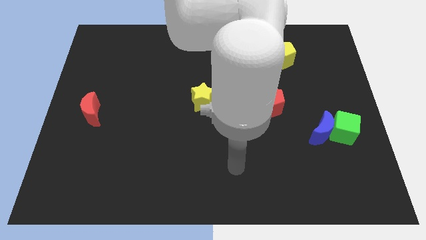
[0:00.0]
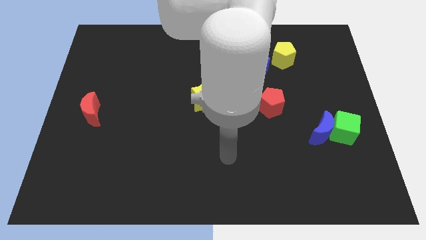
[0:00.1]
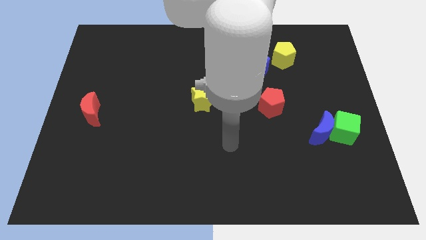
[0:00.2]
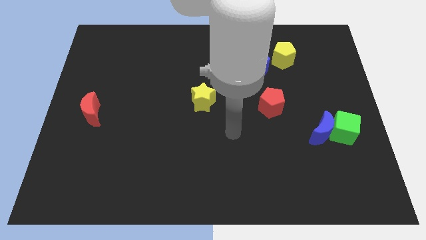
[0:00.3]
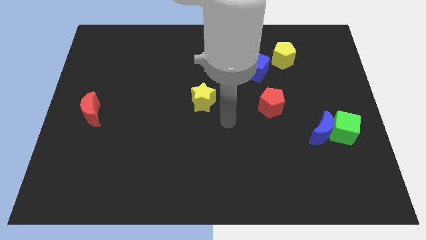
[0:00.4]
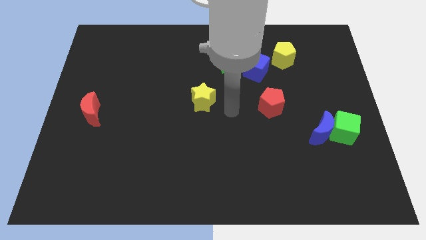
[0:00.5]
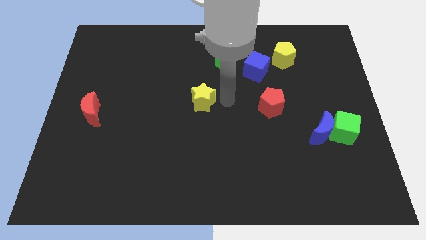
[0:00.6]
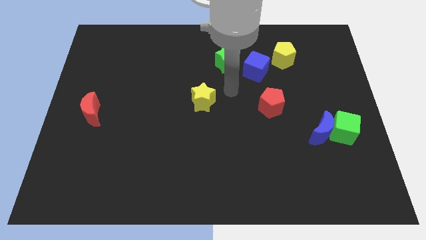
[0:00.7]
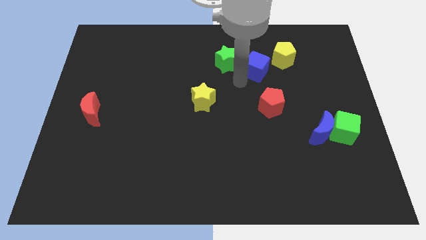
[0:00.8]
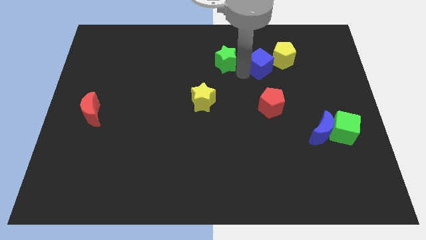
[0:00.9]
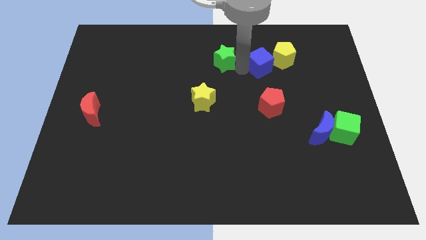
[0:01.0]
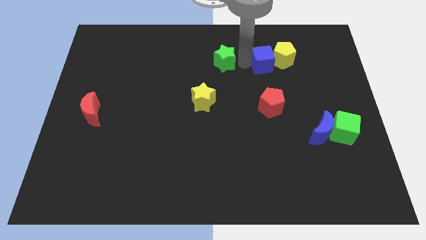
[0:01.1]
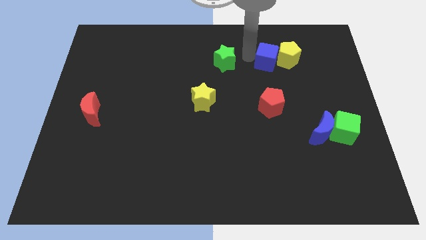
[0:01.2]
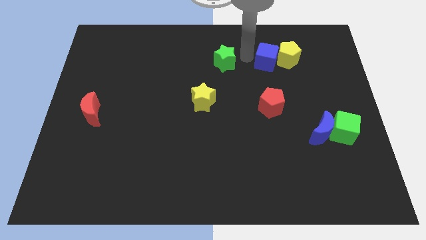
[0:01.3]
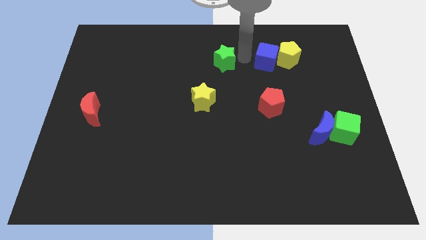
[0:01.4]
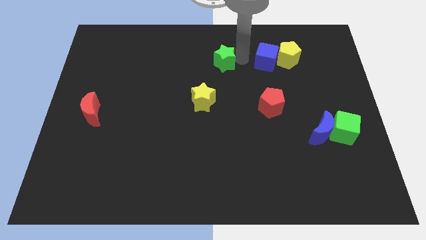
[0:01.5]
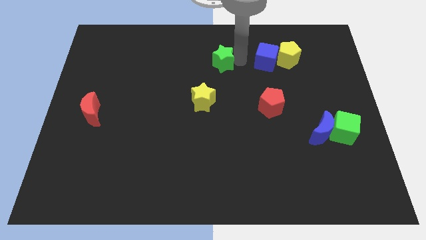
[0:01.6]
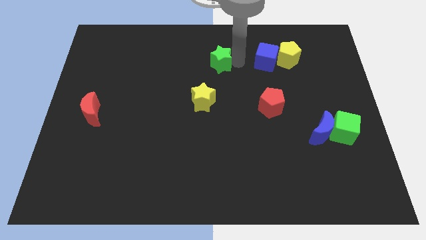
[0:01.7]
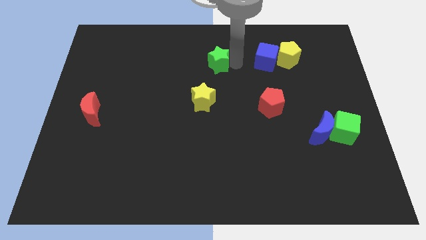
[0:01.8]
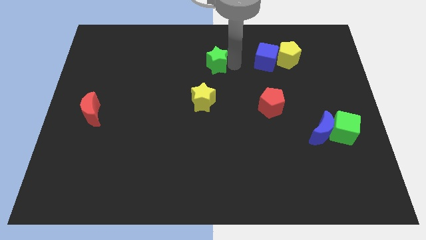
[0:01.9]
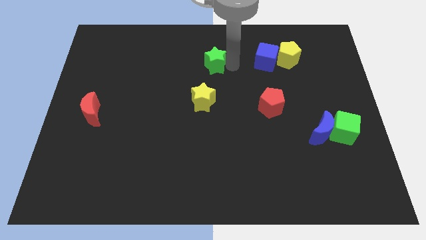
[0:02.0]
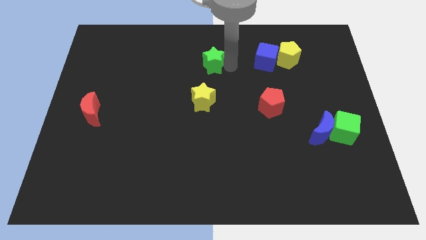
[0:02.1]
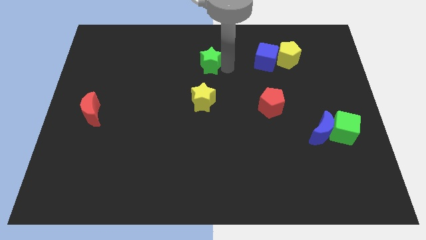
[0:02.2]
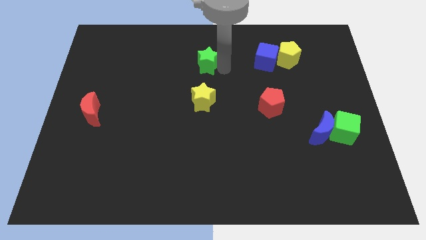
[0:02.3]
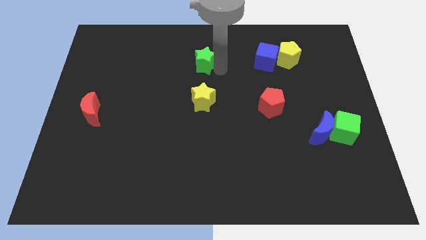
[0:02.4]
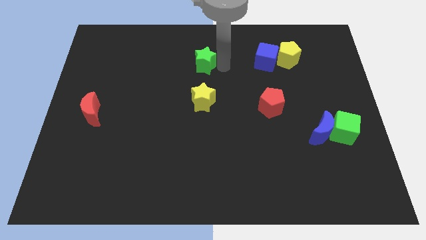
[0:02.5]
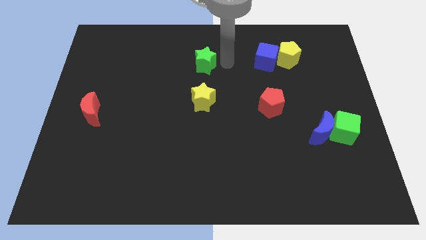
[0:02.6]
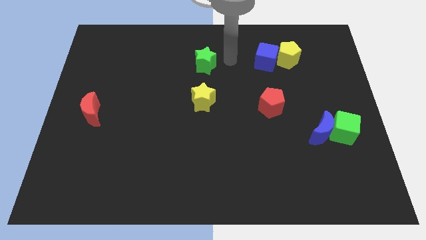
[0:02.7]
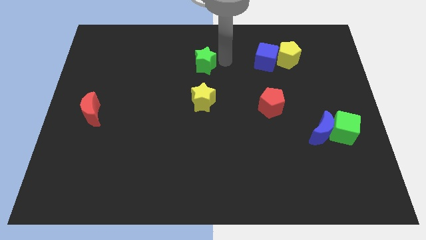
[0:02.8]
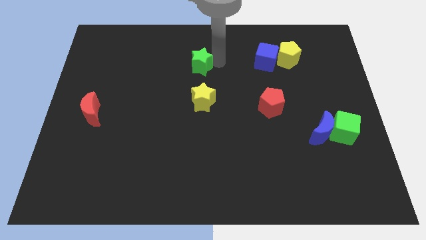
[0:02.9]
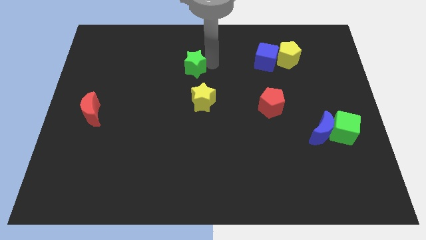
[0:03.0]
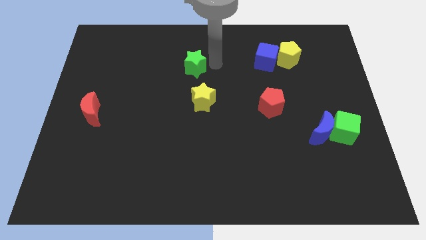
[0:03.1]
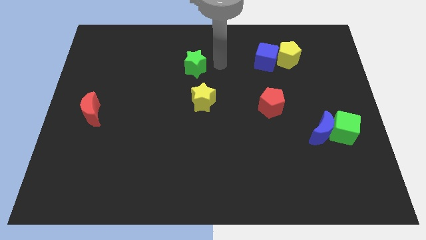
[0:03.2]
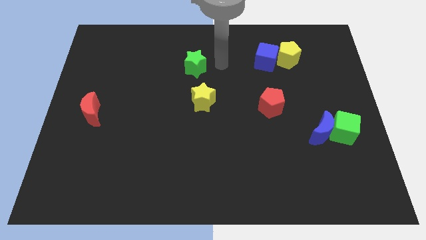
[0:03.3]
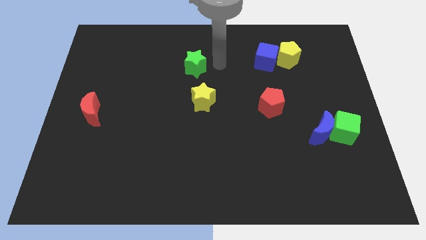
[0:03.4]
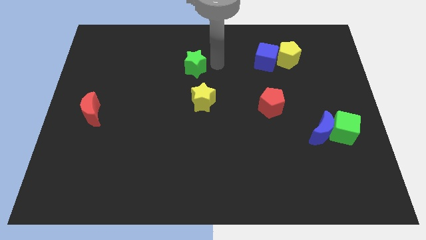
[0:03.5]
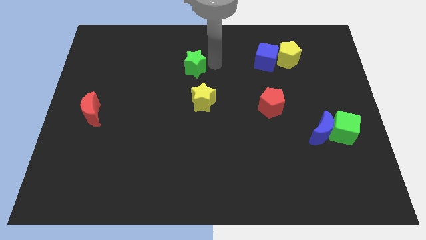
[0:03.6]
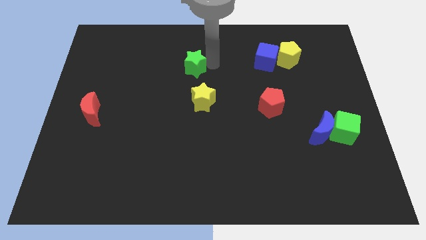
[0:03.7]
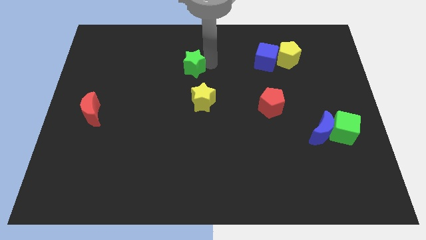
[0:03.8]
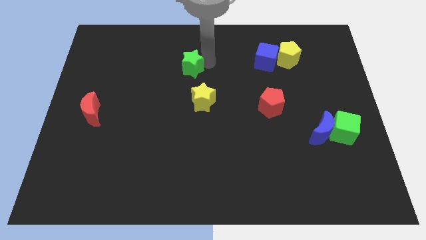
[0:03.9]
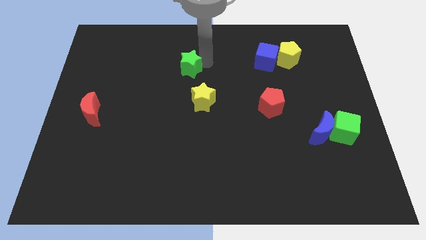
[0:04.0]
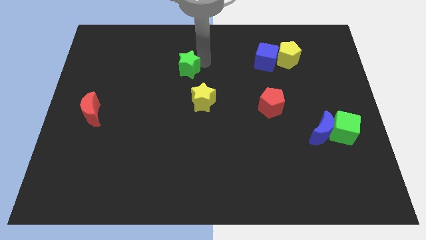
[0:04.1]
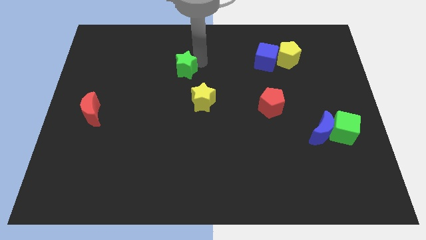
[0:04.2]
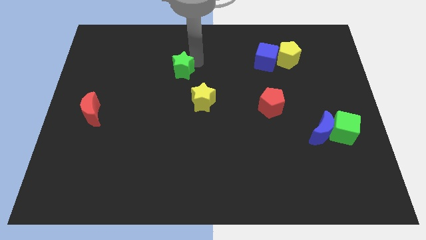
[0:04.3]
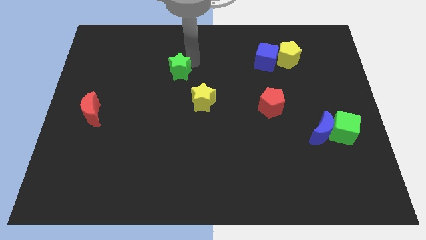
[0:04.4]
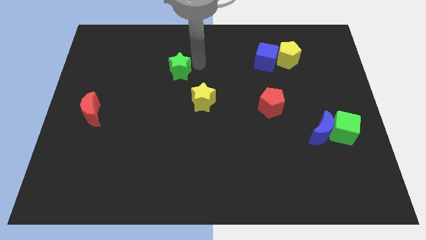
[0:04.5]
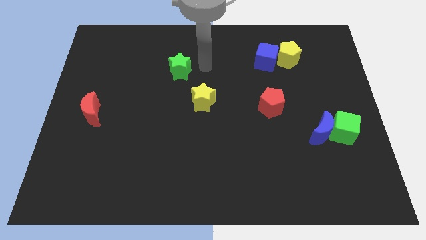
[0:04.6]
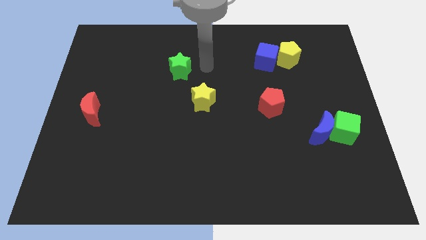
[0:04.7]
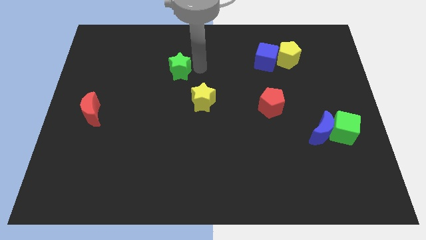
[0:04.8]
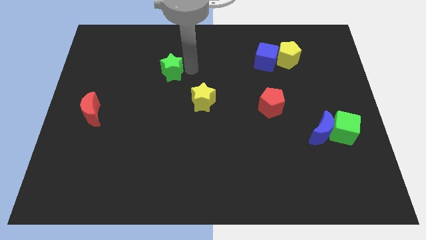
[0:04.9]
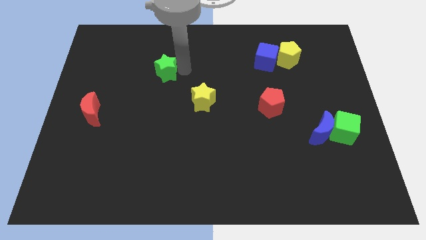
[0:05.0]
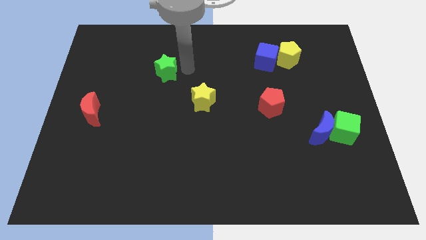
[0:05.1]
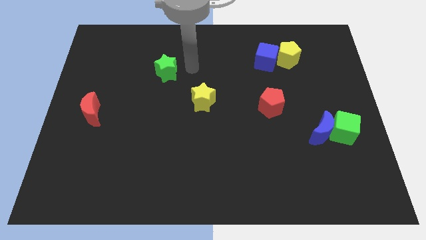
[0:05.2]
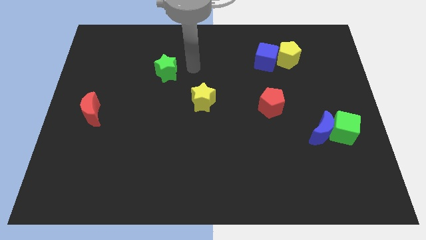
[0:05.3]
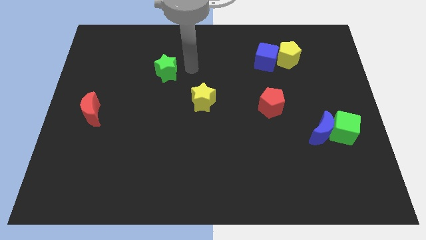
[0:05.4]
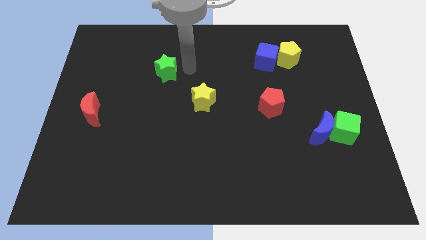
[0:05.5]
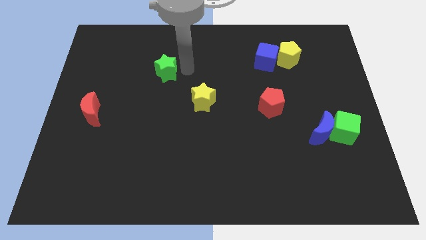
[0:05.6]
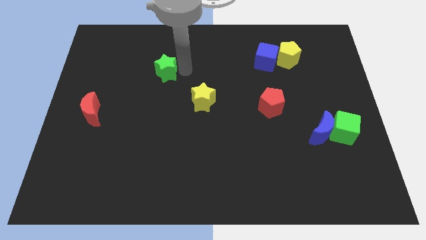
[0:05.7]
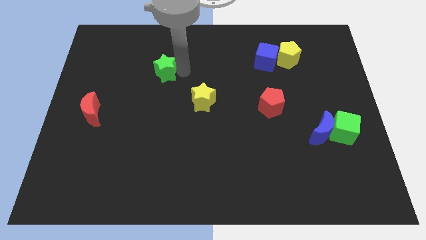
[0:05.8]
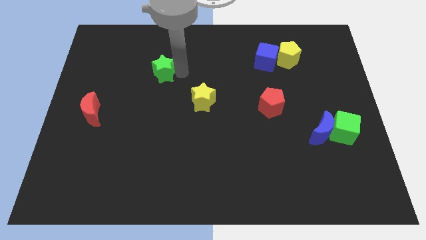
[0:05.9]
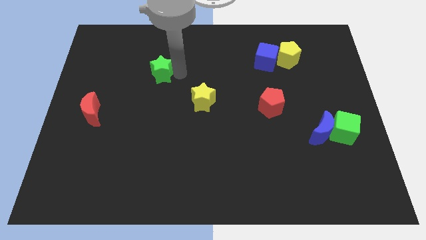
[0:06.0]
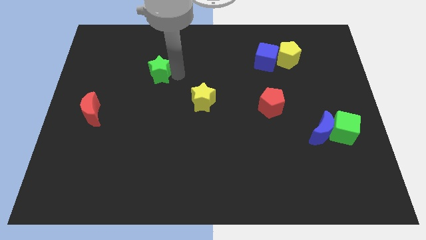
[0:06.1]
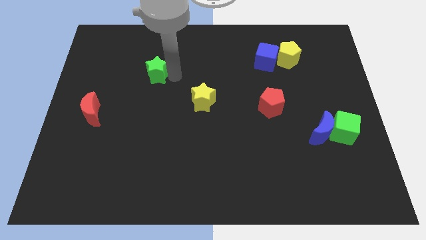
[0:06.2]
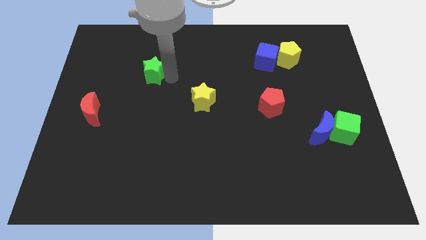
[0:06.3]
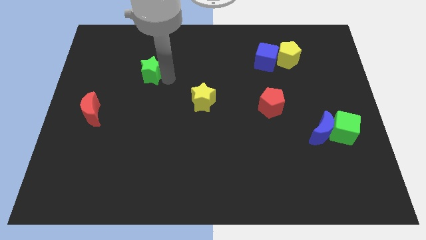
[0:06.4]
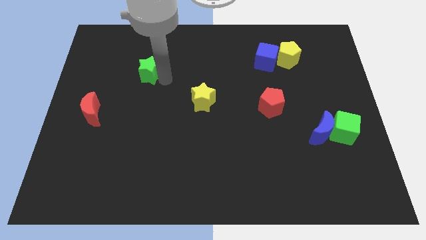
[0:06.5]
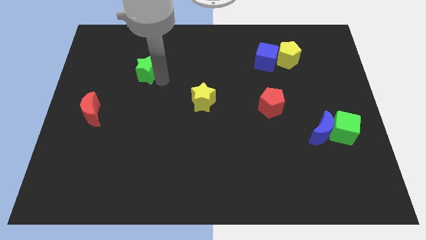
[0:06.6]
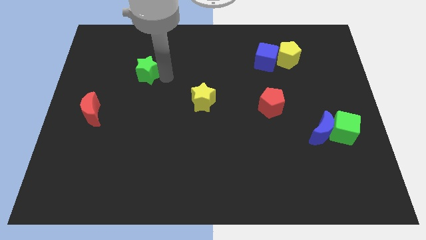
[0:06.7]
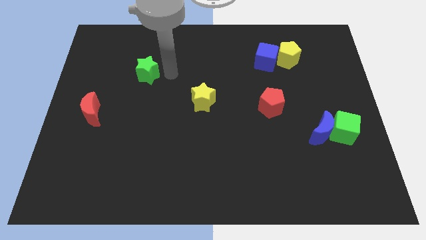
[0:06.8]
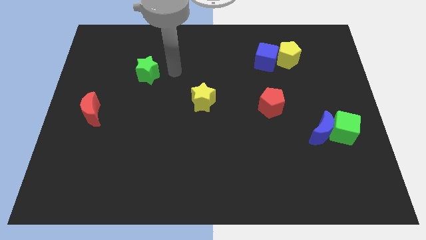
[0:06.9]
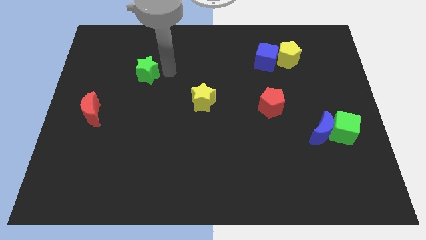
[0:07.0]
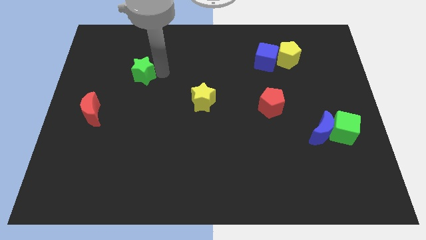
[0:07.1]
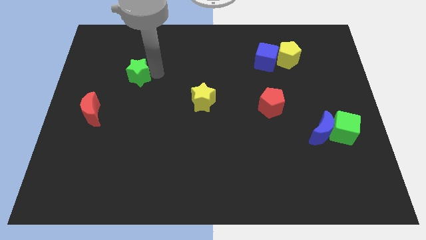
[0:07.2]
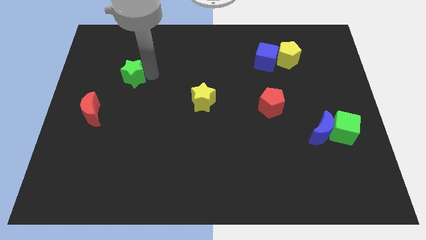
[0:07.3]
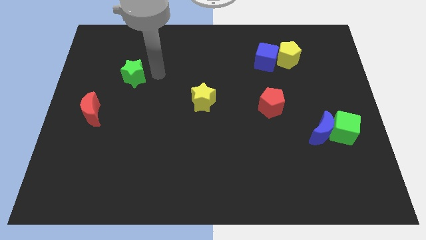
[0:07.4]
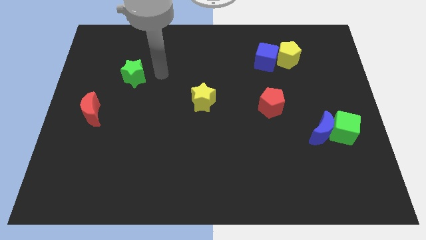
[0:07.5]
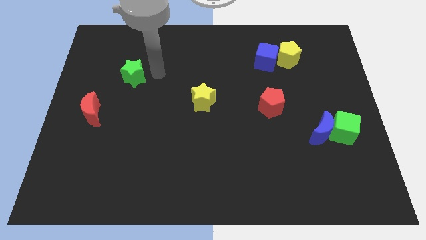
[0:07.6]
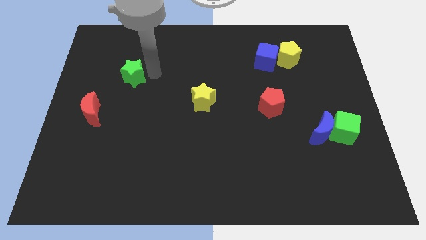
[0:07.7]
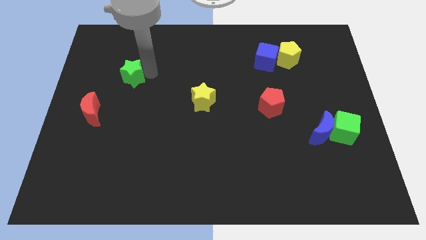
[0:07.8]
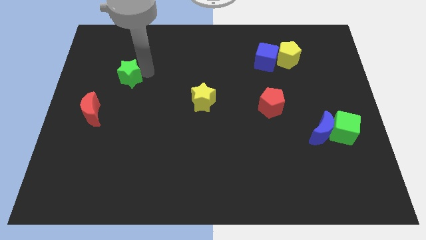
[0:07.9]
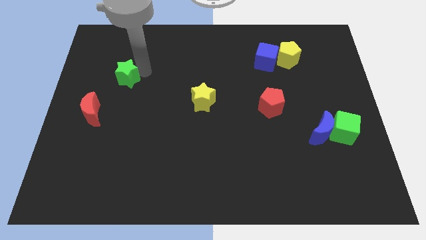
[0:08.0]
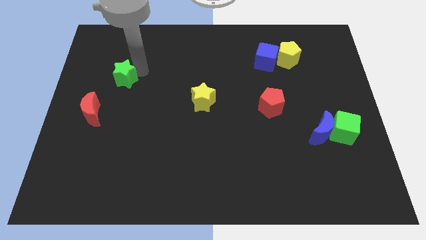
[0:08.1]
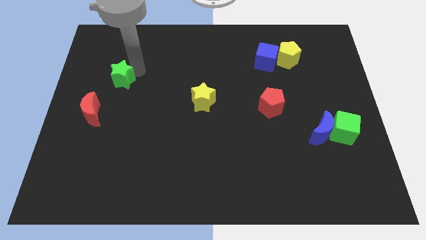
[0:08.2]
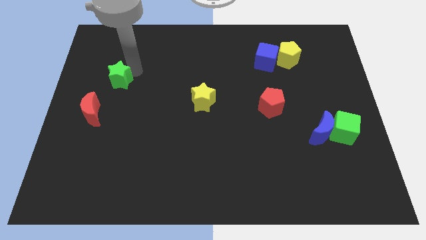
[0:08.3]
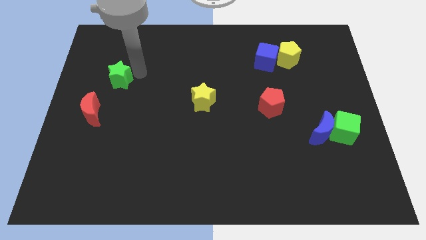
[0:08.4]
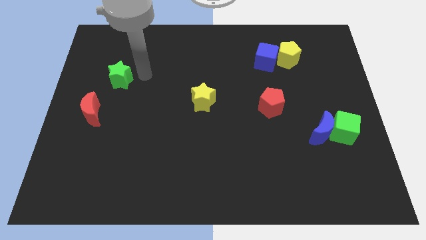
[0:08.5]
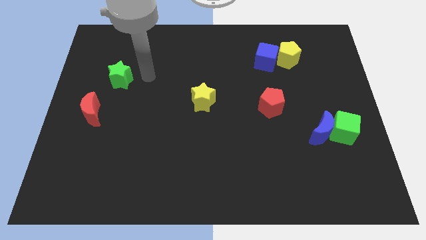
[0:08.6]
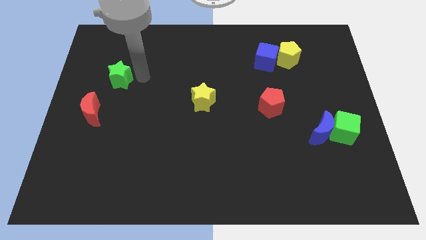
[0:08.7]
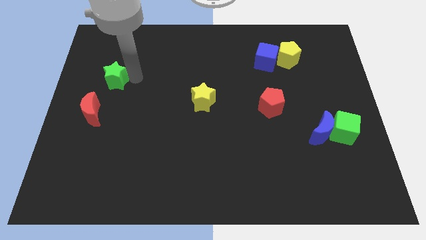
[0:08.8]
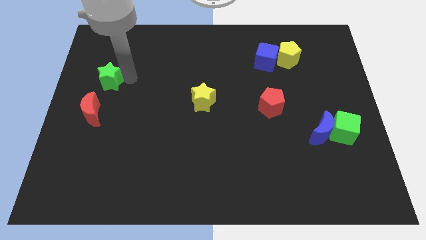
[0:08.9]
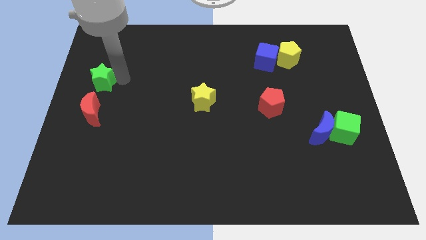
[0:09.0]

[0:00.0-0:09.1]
move the green star to the left side
